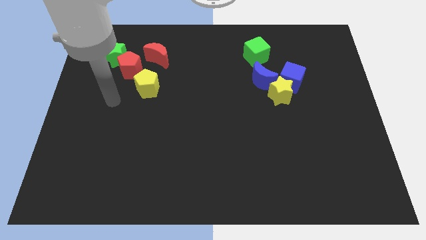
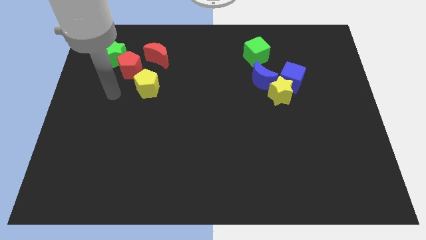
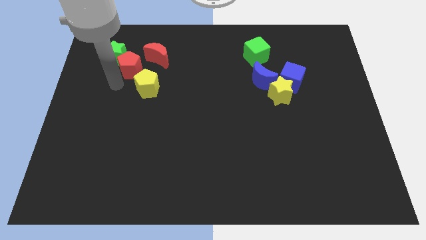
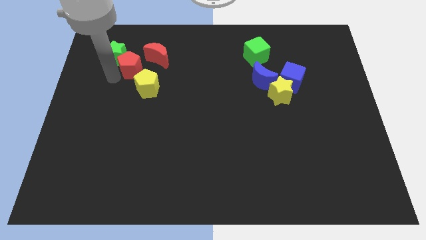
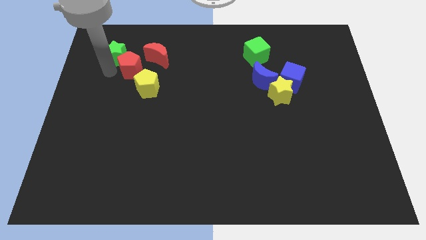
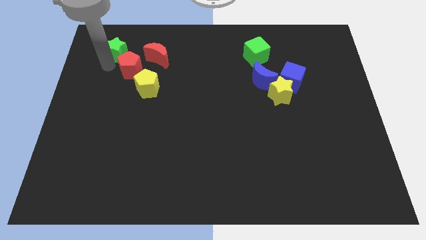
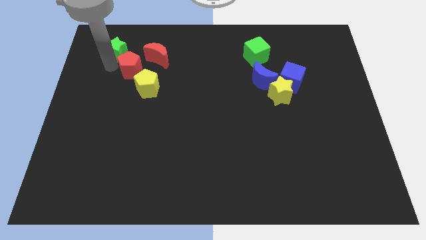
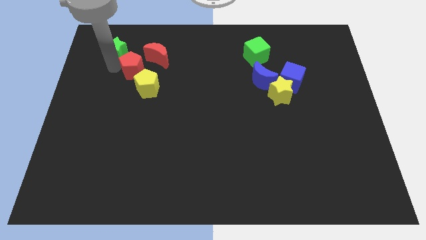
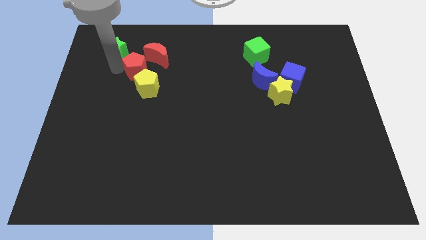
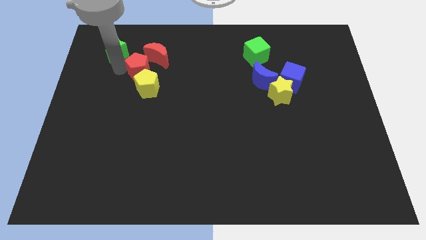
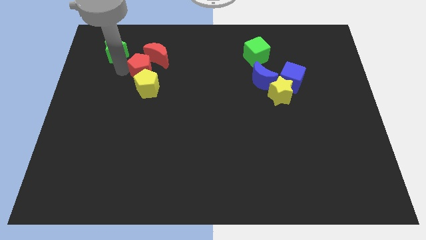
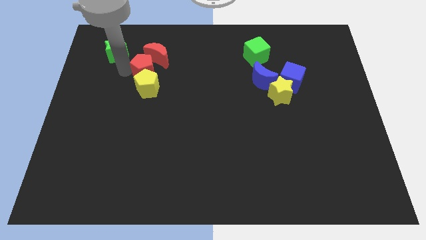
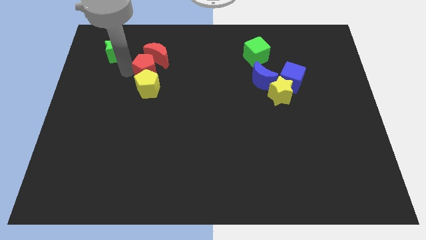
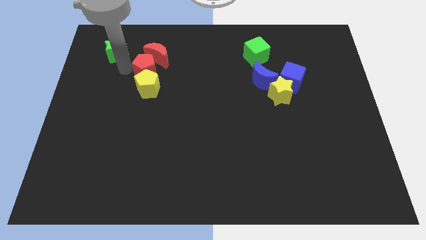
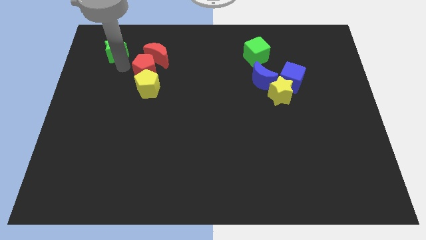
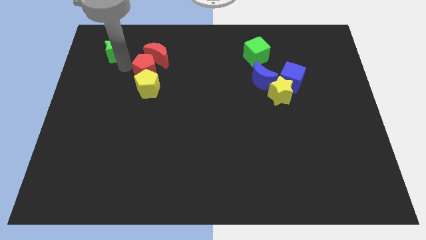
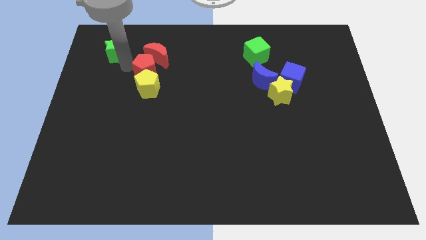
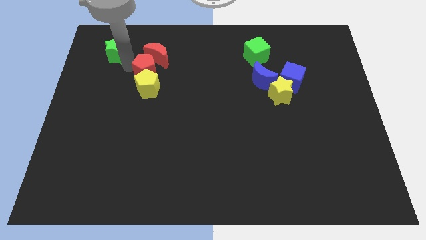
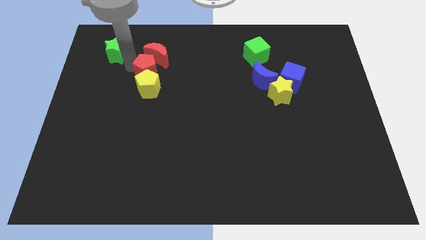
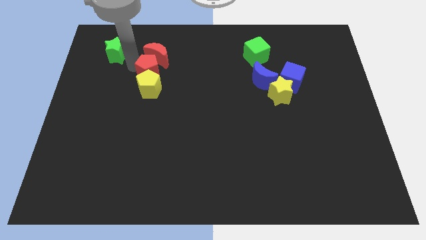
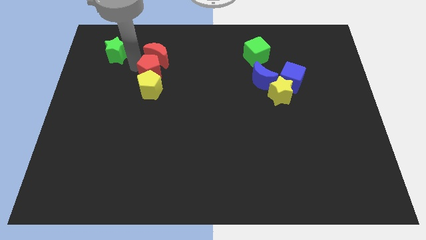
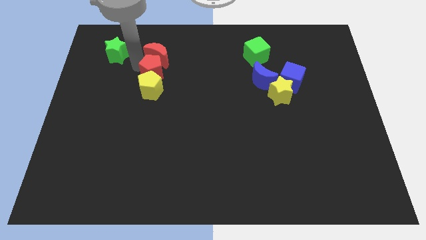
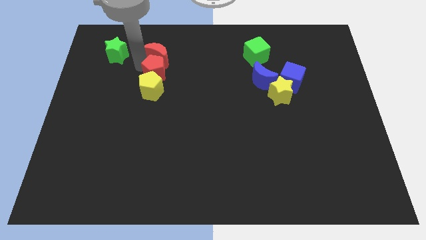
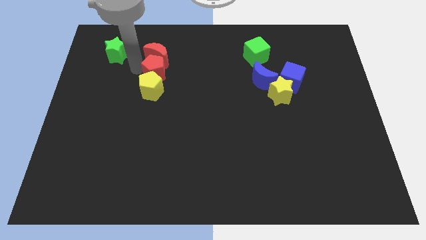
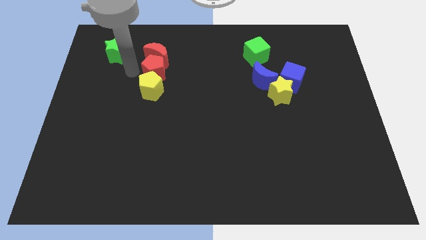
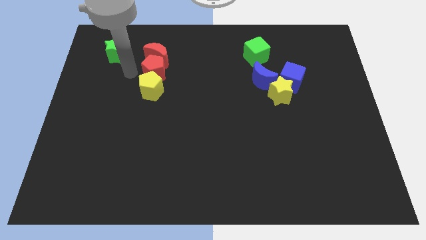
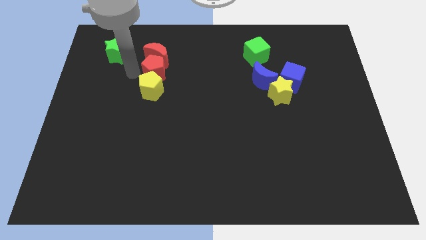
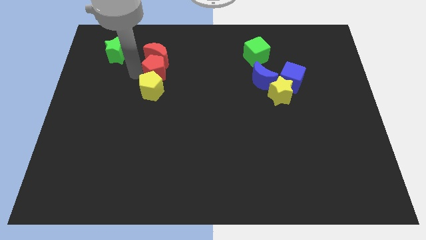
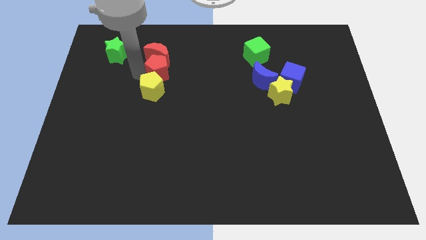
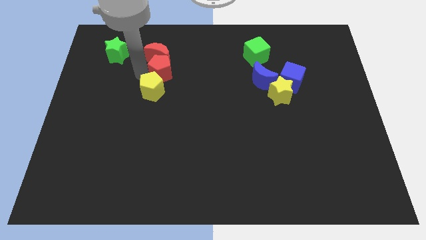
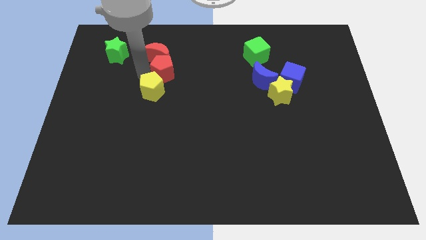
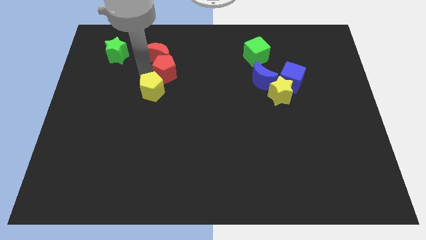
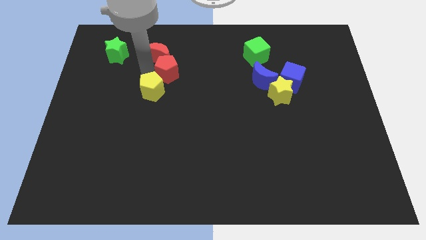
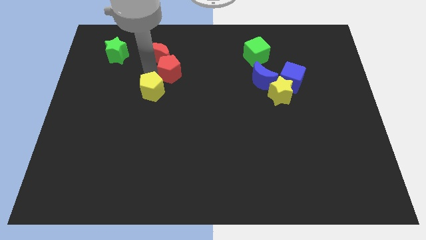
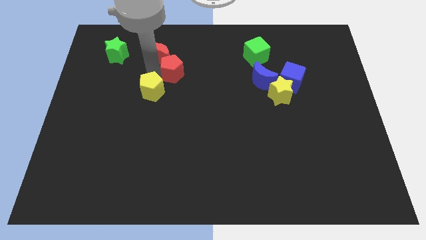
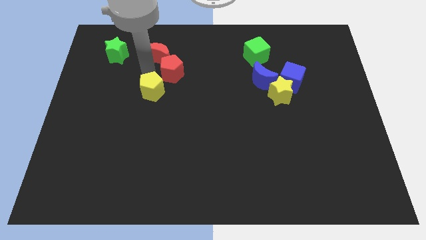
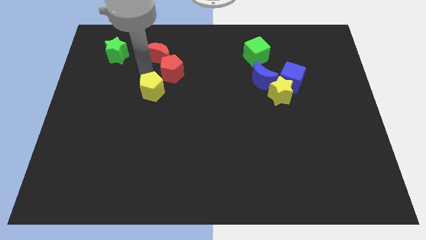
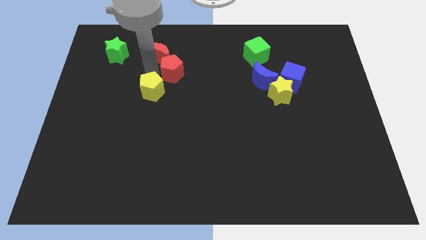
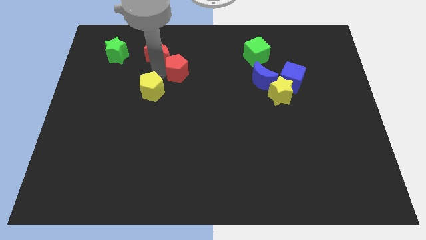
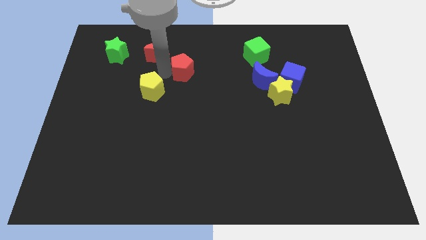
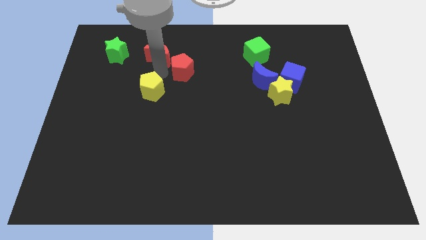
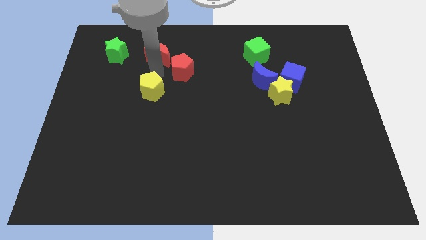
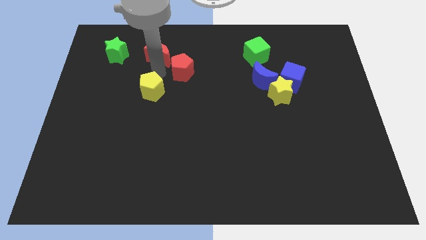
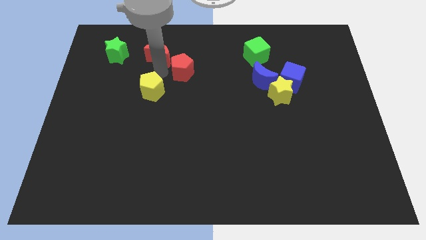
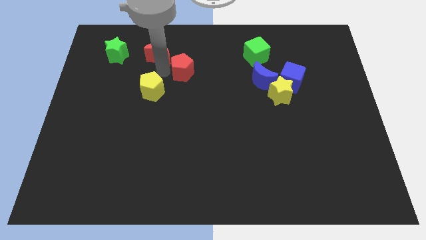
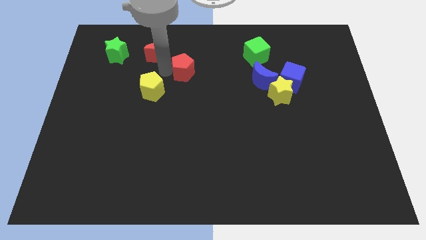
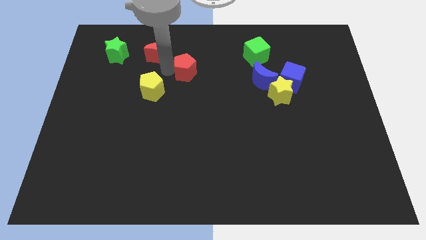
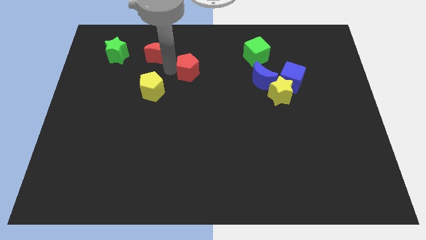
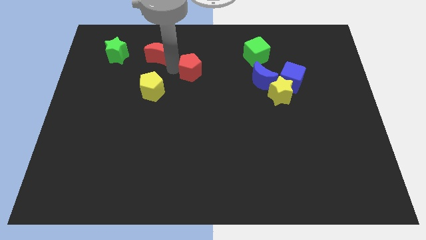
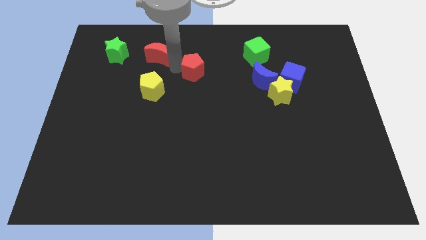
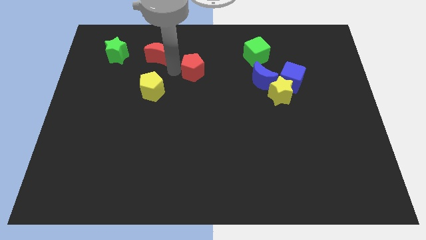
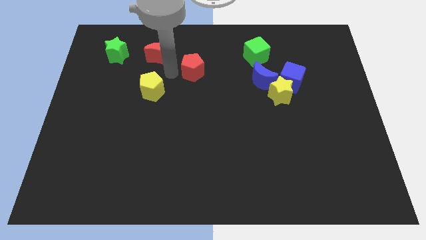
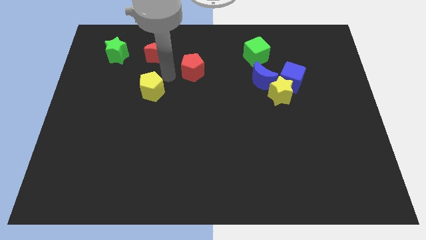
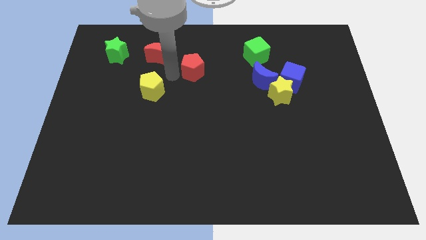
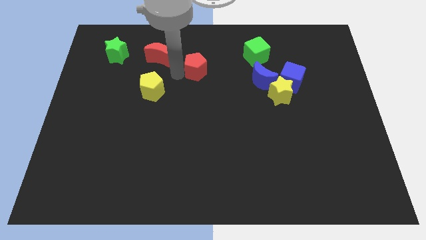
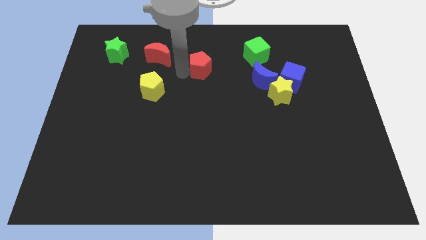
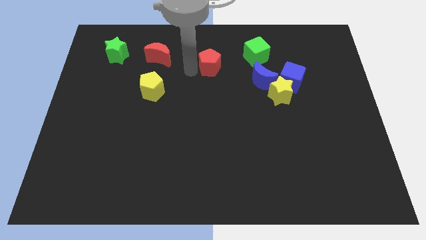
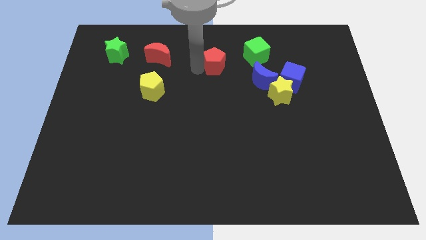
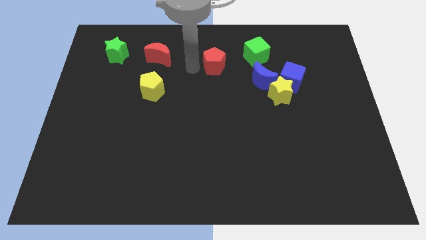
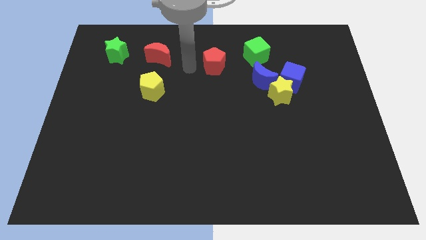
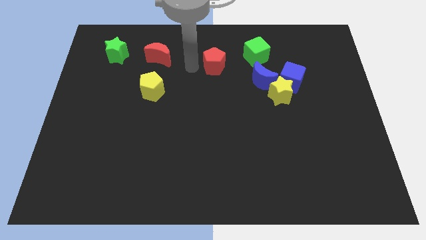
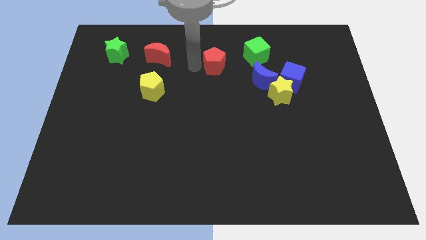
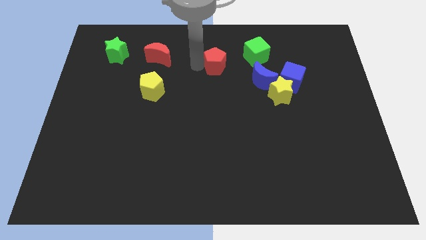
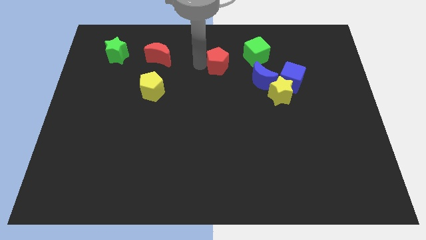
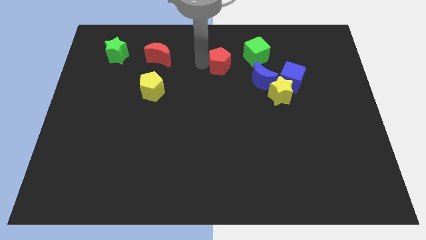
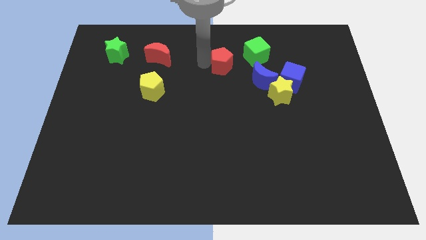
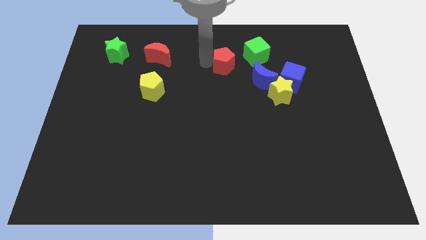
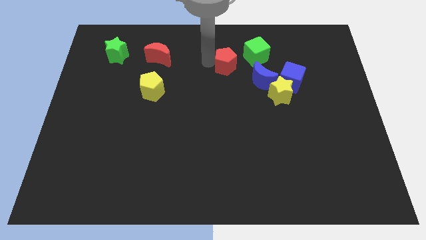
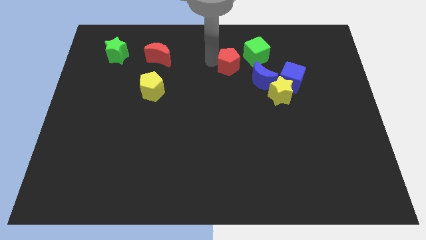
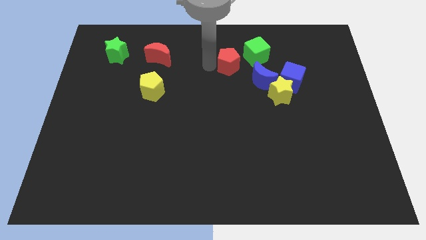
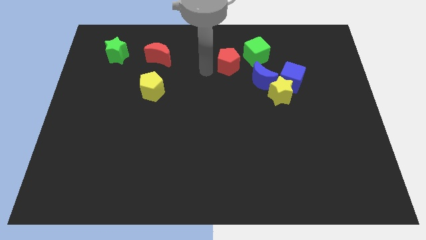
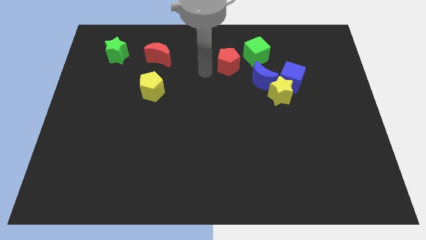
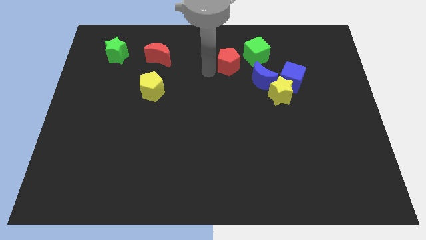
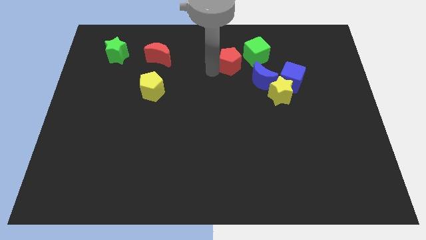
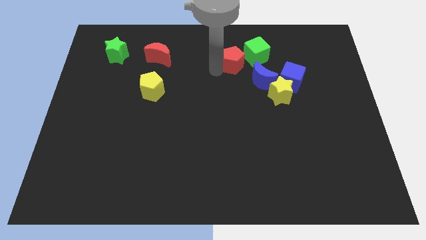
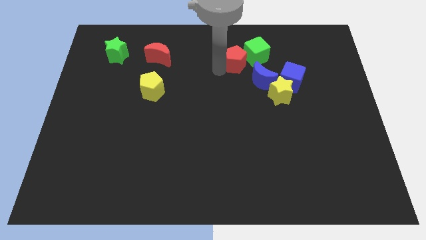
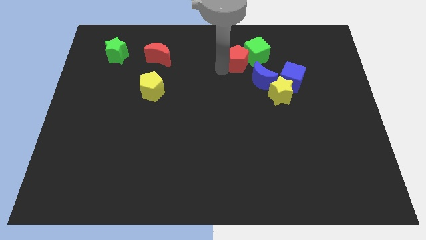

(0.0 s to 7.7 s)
push the red pentagon towards the green cube
